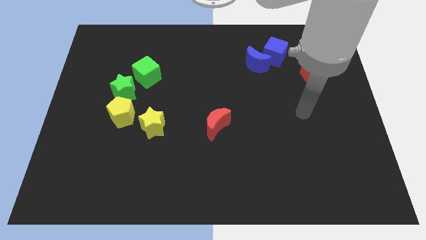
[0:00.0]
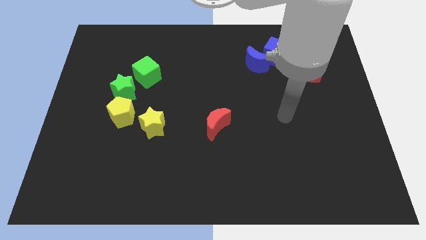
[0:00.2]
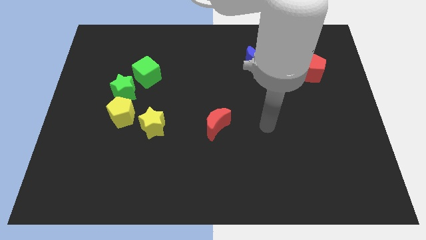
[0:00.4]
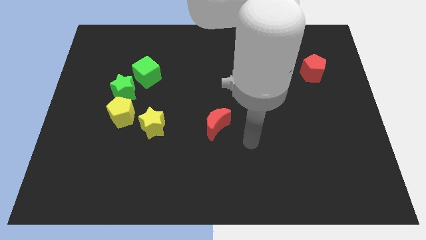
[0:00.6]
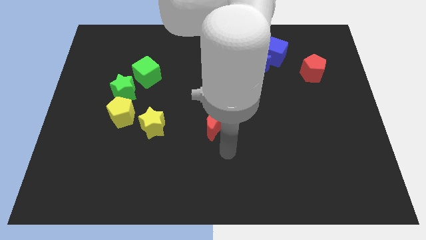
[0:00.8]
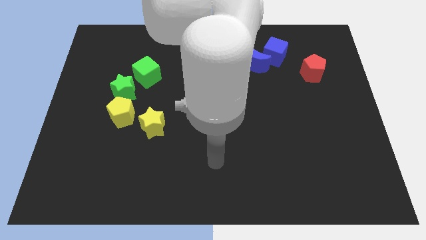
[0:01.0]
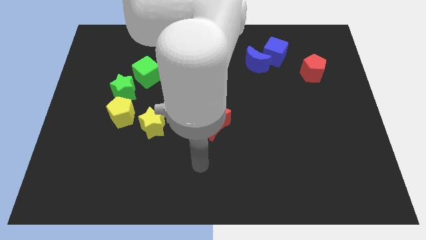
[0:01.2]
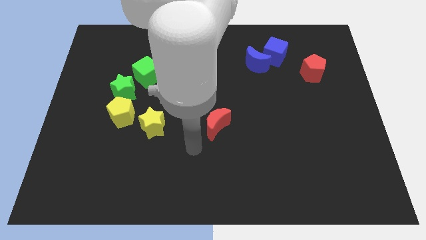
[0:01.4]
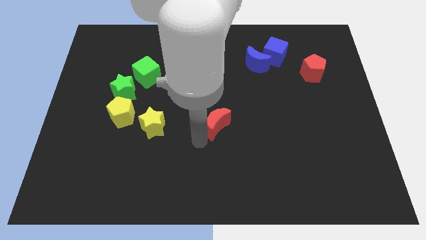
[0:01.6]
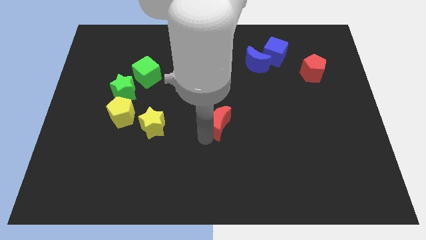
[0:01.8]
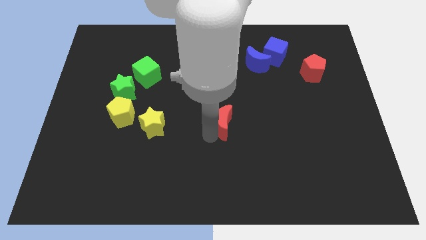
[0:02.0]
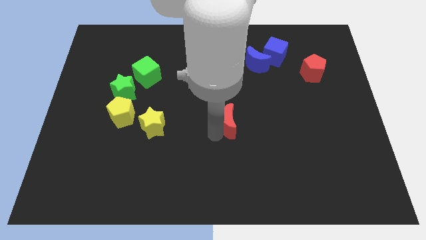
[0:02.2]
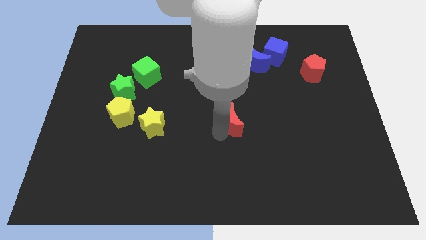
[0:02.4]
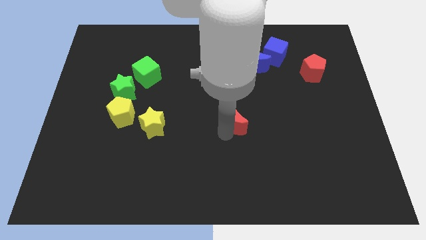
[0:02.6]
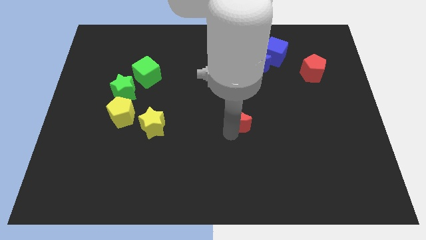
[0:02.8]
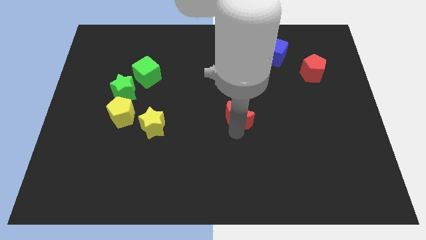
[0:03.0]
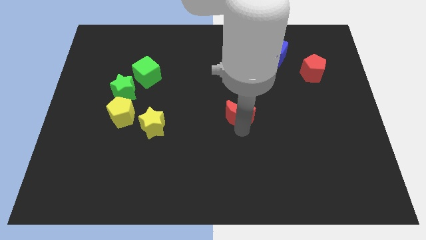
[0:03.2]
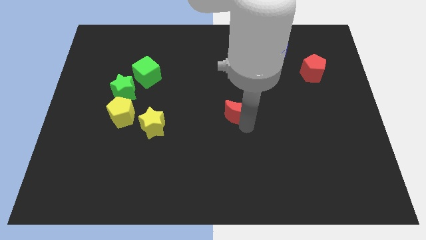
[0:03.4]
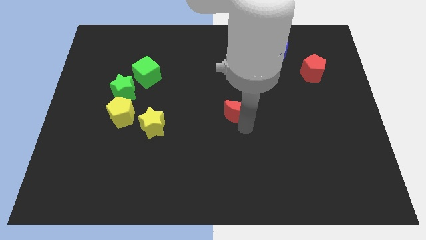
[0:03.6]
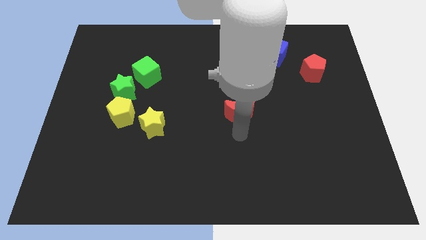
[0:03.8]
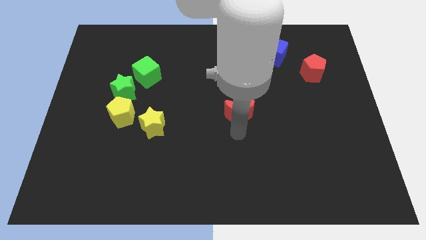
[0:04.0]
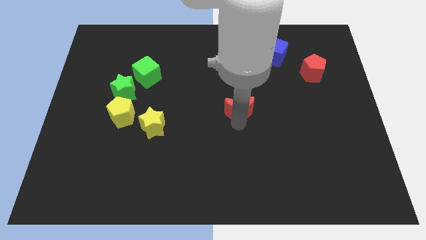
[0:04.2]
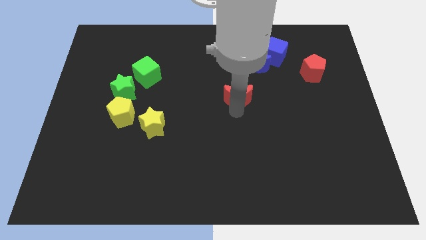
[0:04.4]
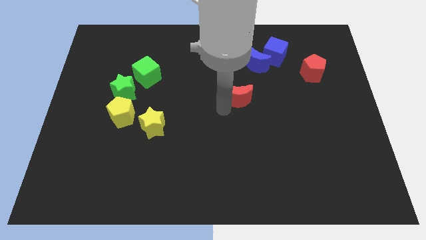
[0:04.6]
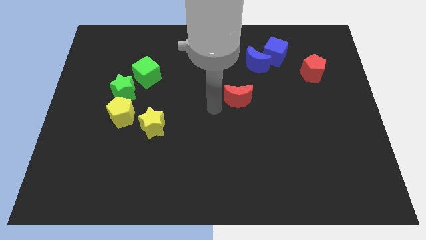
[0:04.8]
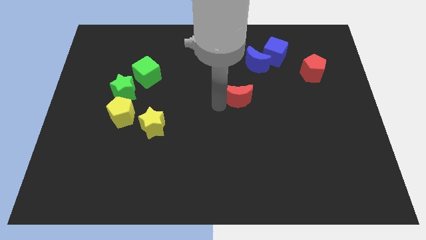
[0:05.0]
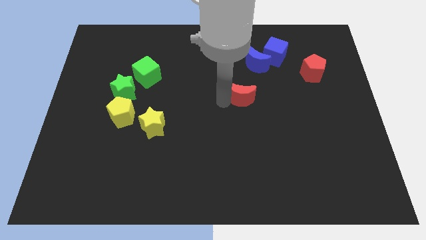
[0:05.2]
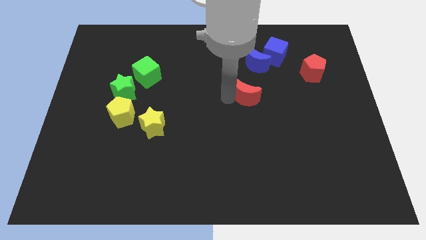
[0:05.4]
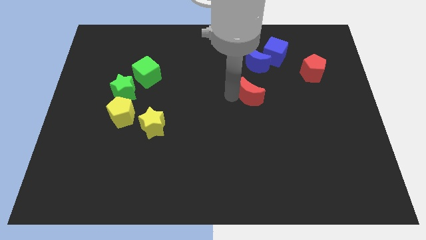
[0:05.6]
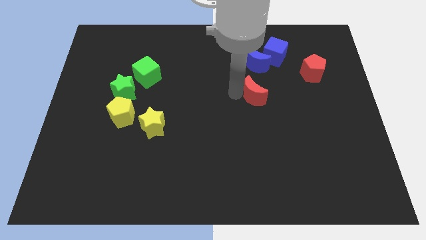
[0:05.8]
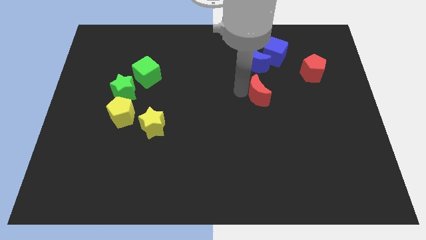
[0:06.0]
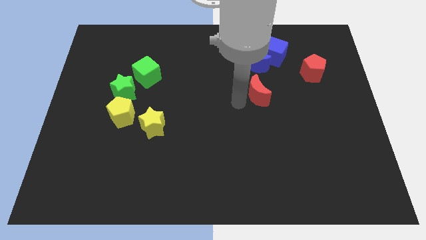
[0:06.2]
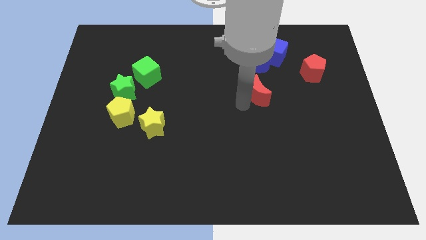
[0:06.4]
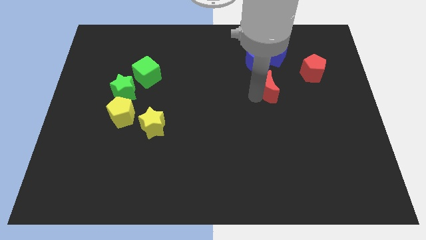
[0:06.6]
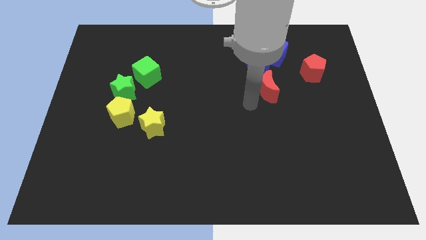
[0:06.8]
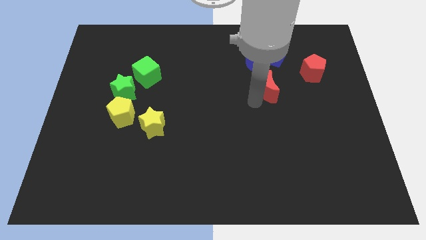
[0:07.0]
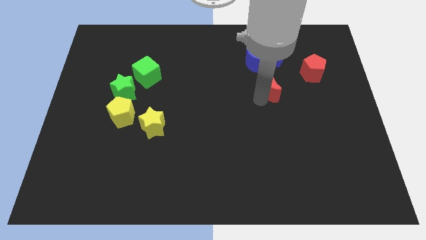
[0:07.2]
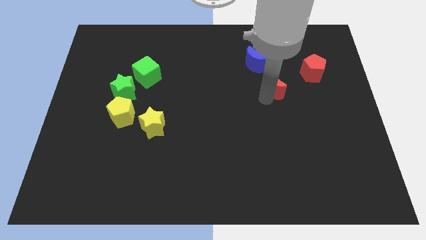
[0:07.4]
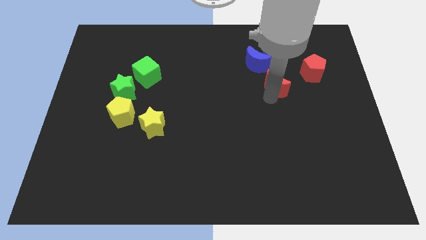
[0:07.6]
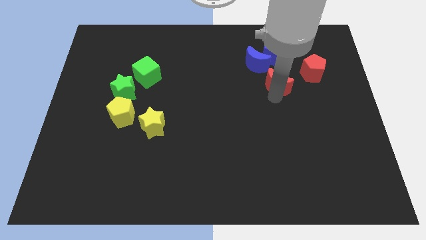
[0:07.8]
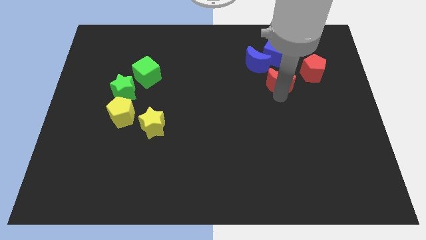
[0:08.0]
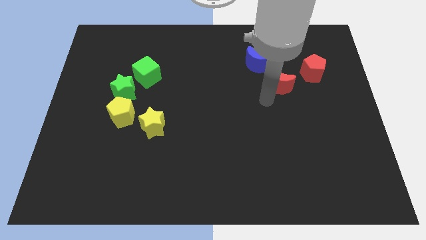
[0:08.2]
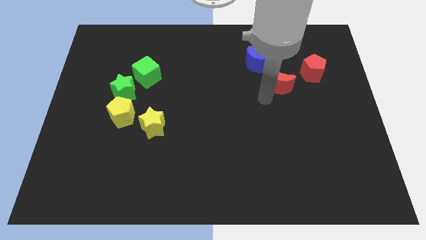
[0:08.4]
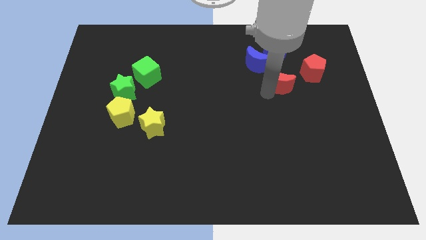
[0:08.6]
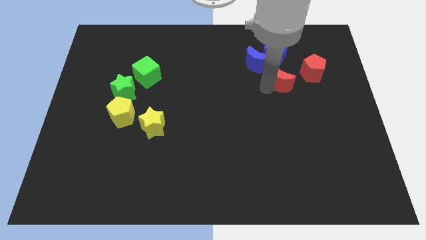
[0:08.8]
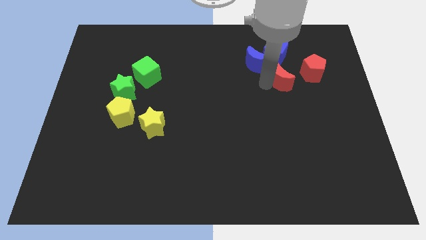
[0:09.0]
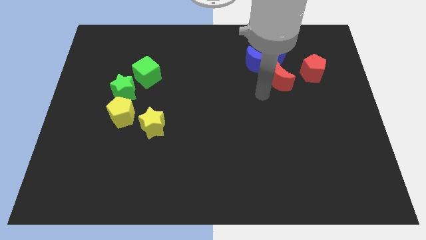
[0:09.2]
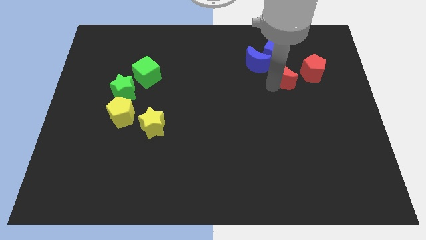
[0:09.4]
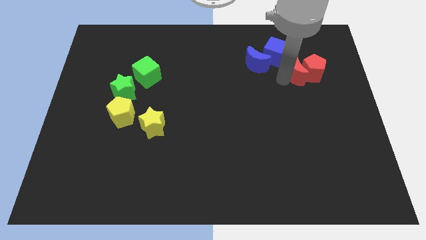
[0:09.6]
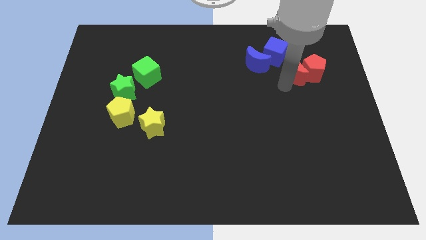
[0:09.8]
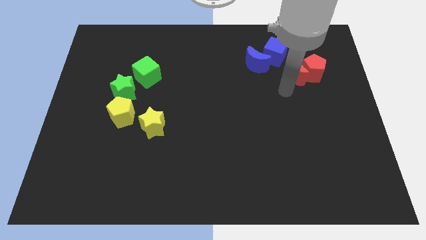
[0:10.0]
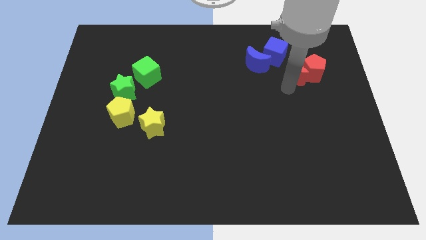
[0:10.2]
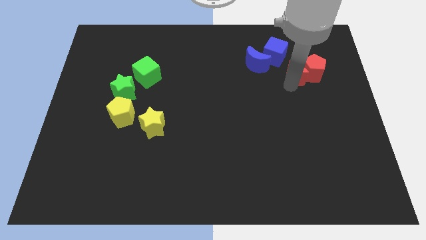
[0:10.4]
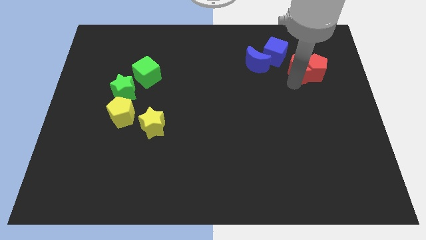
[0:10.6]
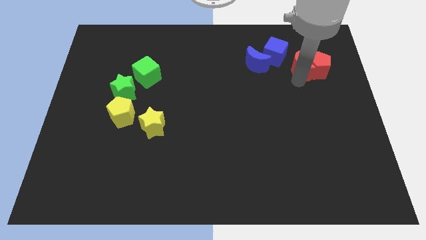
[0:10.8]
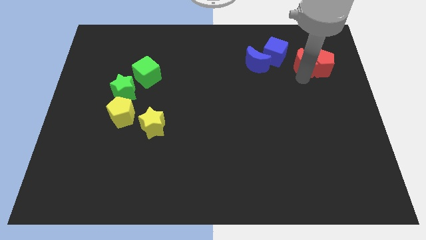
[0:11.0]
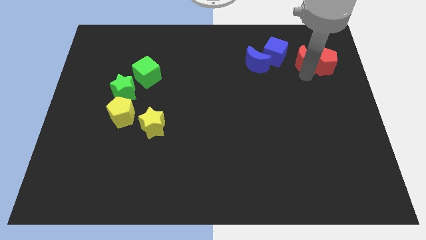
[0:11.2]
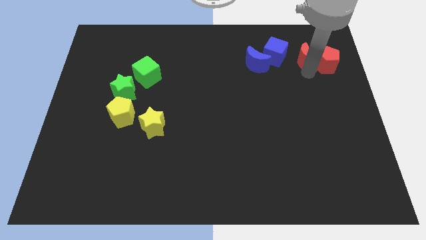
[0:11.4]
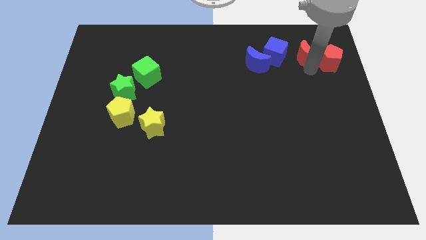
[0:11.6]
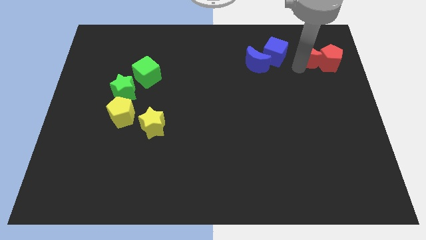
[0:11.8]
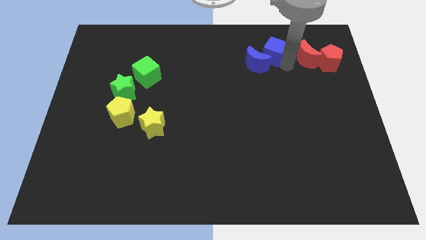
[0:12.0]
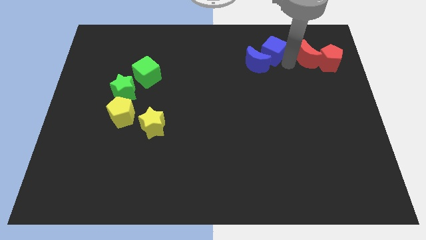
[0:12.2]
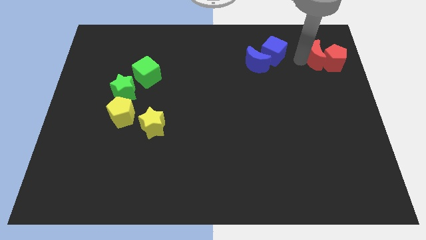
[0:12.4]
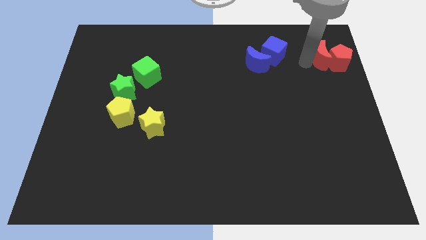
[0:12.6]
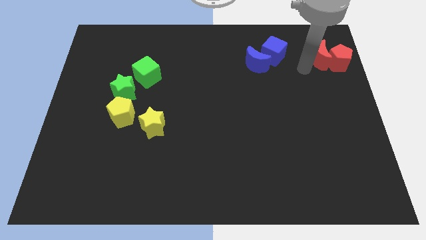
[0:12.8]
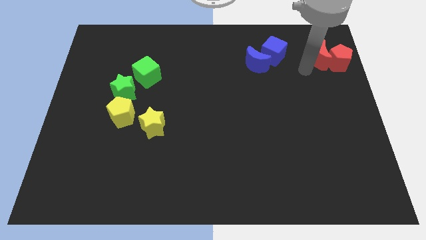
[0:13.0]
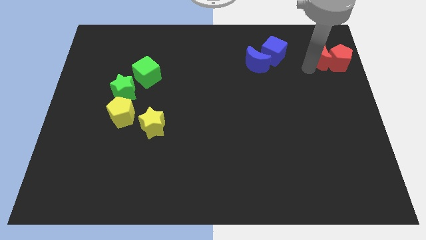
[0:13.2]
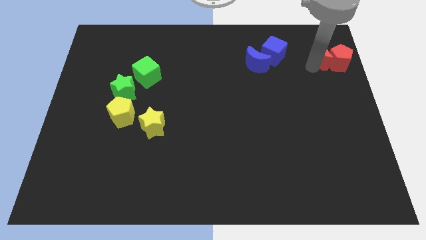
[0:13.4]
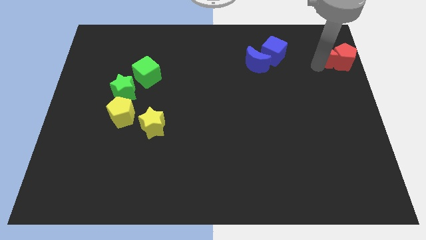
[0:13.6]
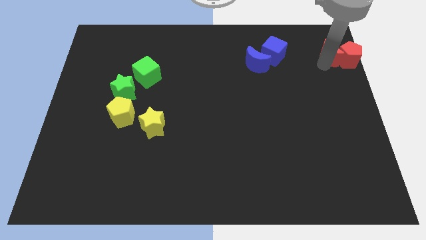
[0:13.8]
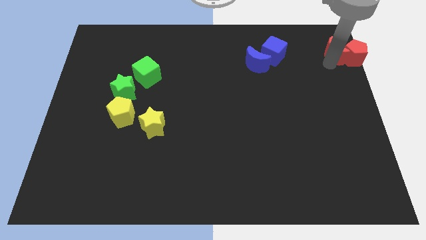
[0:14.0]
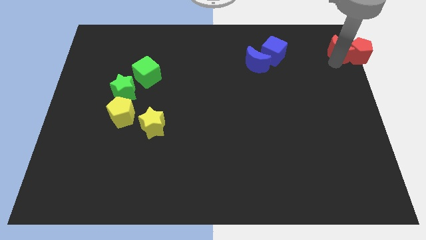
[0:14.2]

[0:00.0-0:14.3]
put the red moon to the top right
